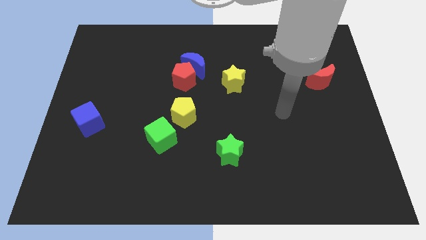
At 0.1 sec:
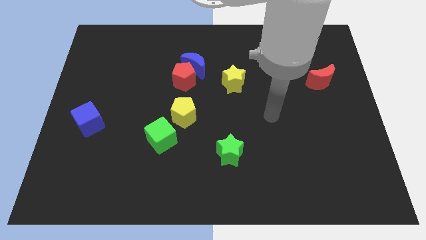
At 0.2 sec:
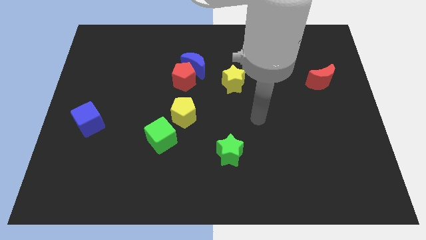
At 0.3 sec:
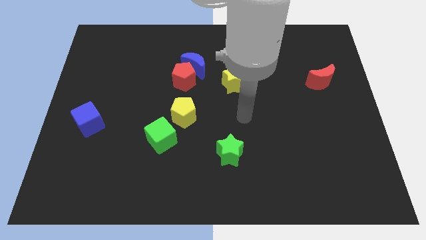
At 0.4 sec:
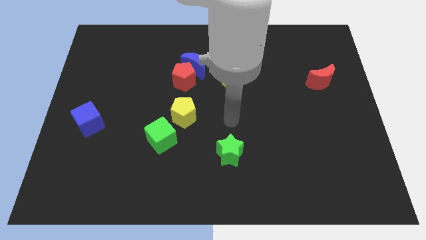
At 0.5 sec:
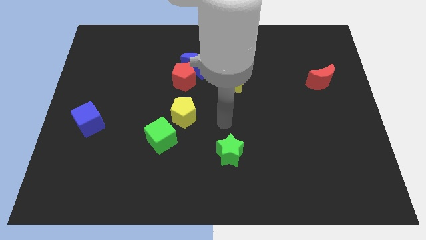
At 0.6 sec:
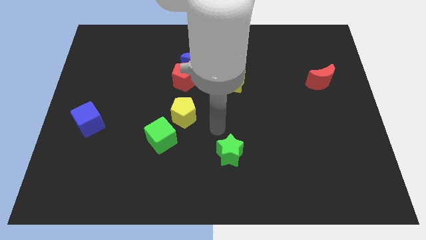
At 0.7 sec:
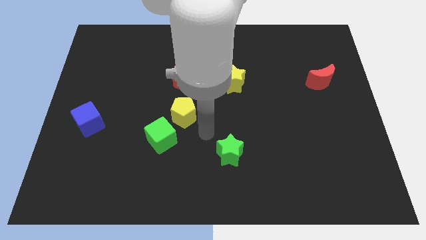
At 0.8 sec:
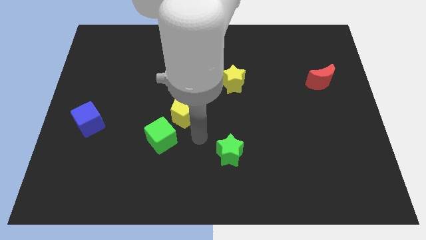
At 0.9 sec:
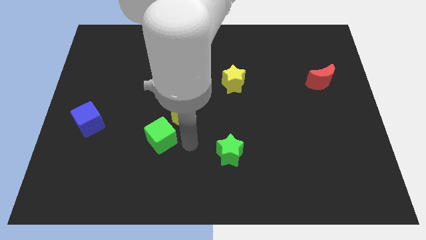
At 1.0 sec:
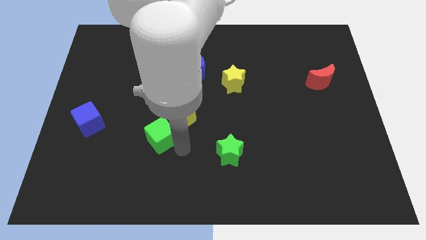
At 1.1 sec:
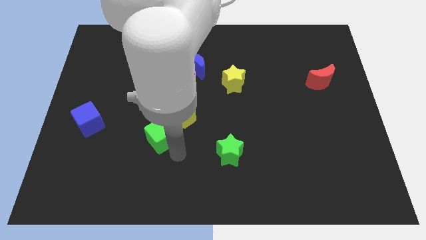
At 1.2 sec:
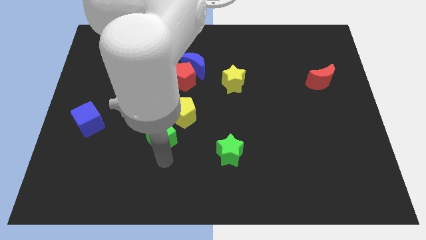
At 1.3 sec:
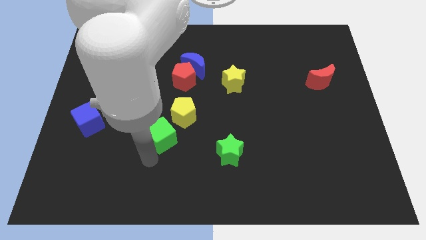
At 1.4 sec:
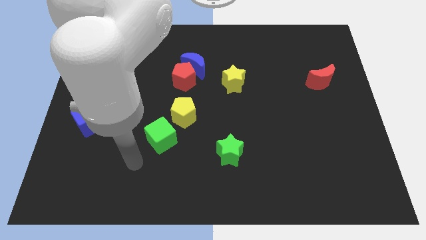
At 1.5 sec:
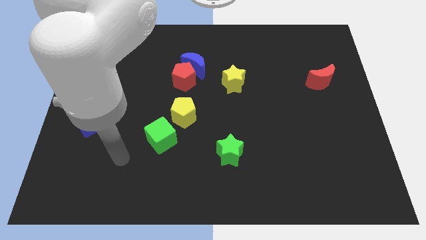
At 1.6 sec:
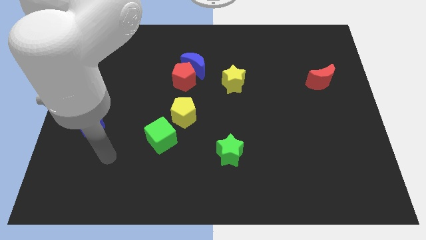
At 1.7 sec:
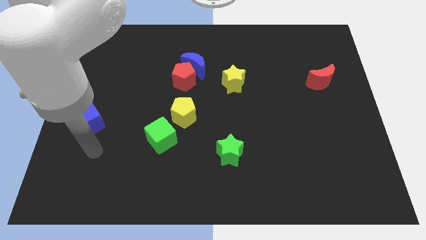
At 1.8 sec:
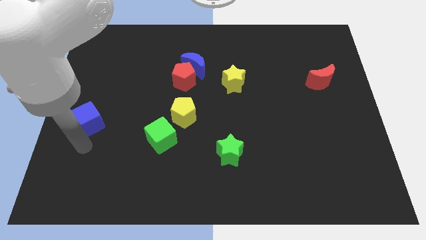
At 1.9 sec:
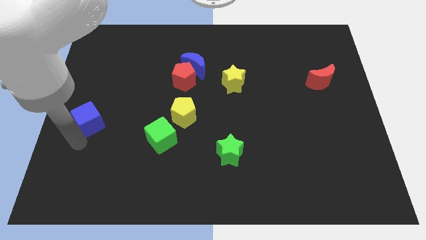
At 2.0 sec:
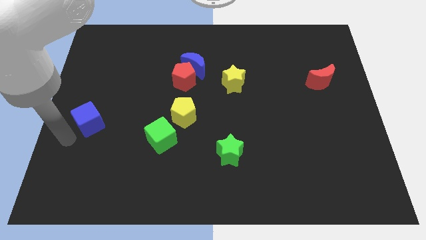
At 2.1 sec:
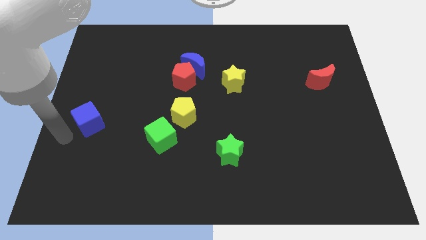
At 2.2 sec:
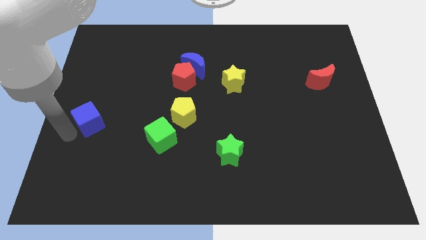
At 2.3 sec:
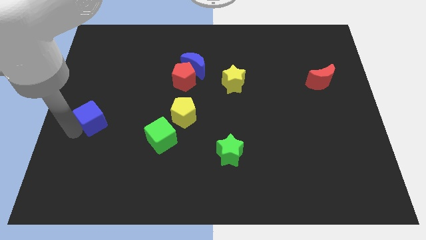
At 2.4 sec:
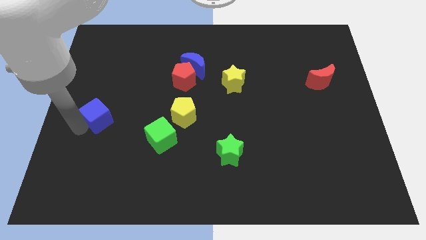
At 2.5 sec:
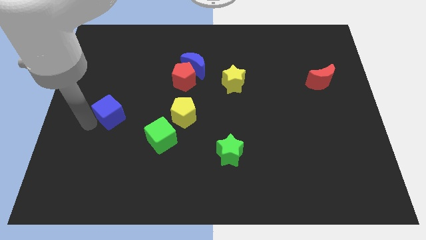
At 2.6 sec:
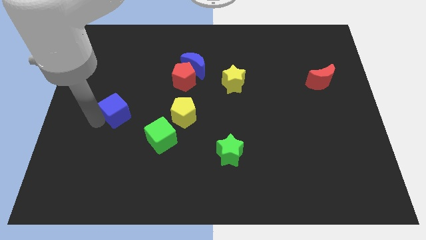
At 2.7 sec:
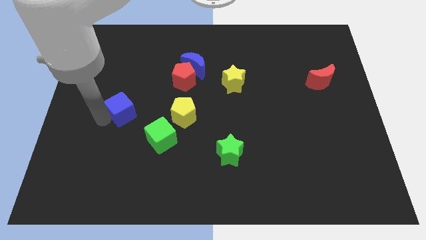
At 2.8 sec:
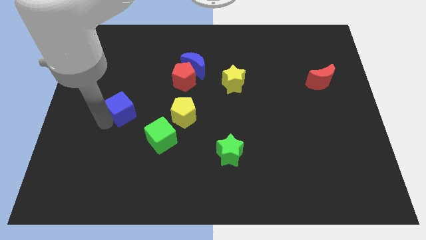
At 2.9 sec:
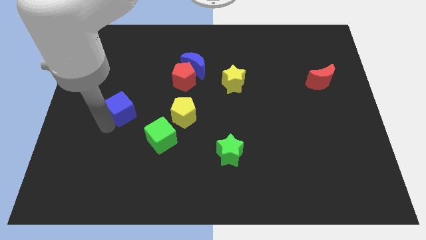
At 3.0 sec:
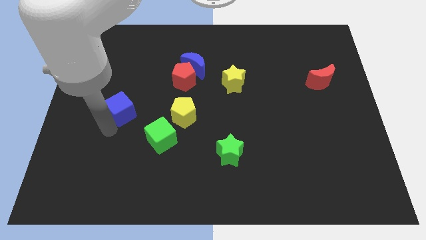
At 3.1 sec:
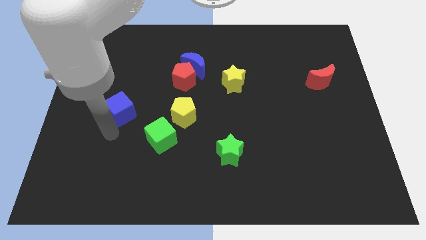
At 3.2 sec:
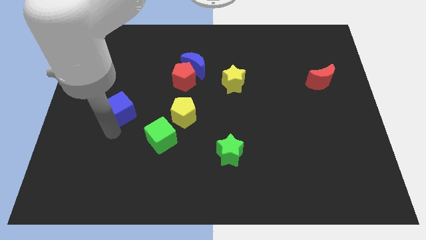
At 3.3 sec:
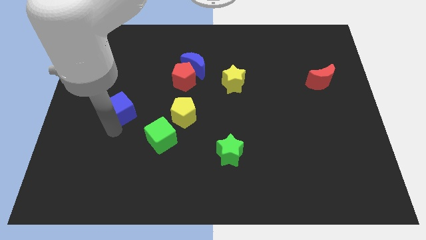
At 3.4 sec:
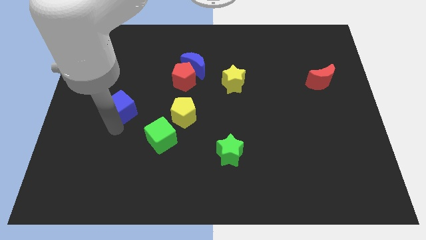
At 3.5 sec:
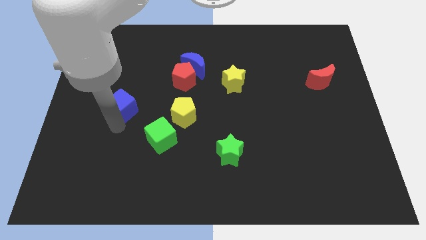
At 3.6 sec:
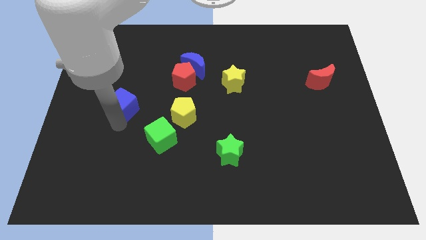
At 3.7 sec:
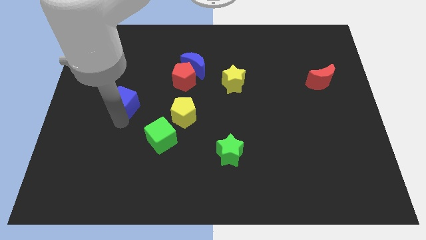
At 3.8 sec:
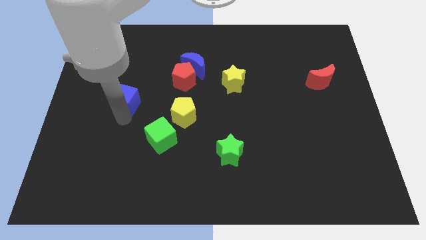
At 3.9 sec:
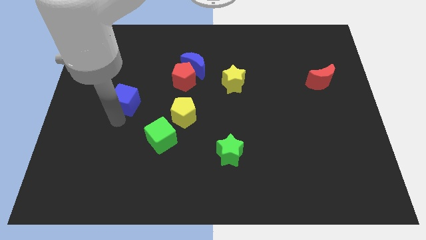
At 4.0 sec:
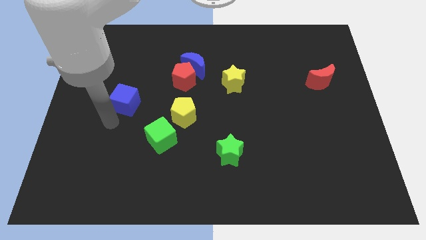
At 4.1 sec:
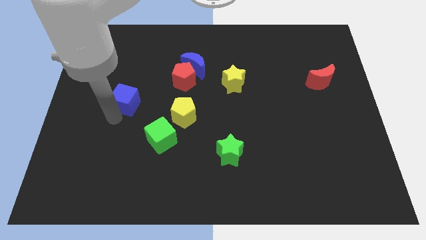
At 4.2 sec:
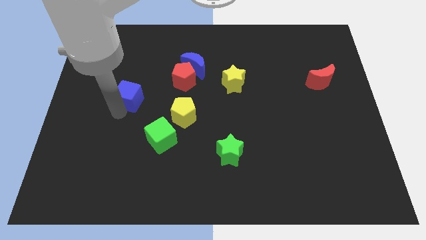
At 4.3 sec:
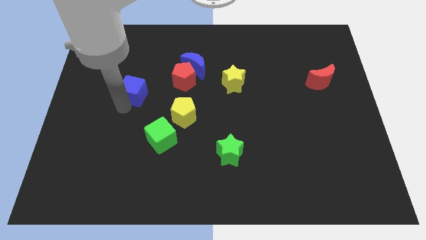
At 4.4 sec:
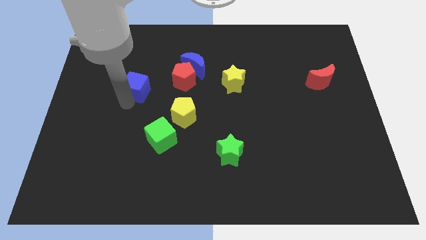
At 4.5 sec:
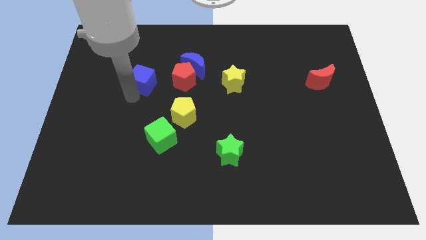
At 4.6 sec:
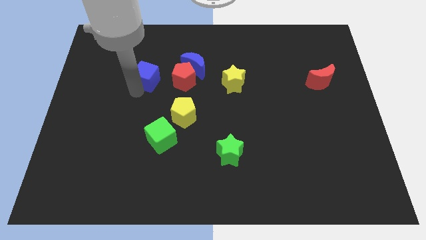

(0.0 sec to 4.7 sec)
slide the blue cube to the left side of the blue moon

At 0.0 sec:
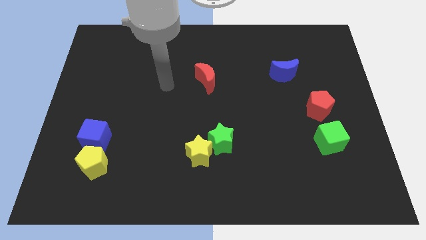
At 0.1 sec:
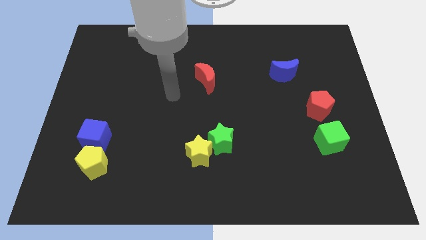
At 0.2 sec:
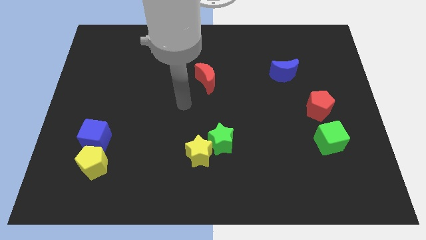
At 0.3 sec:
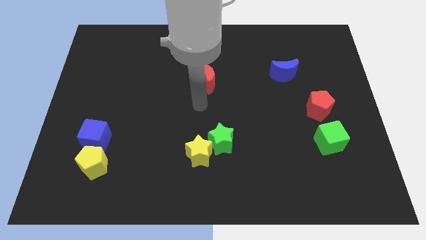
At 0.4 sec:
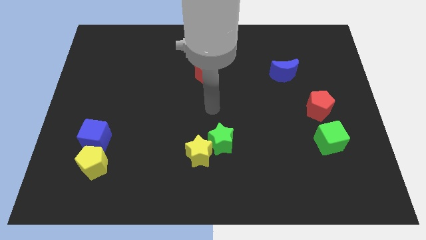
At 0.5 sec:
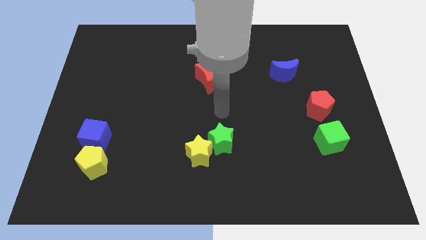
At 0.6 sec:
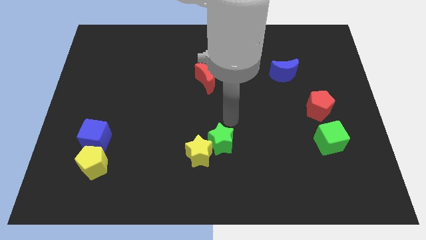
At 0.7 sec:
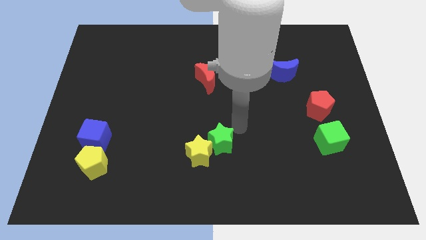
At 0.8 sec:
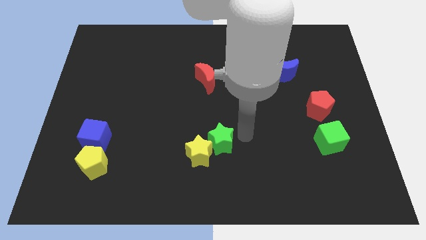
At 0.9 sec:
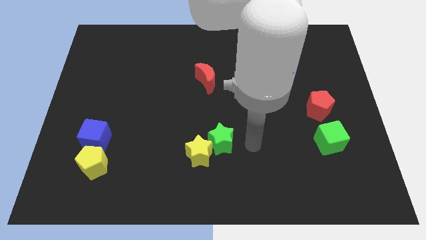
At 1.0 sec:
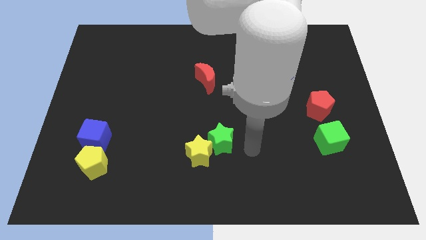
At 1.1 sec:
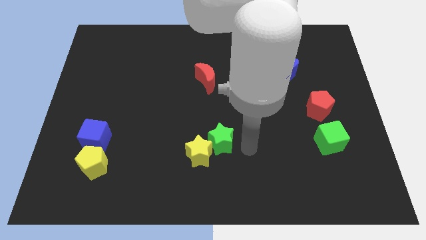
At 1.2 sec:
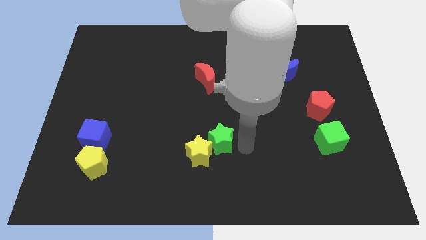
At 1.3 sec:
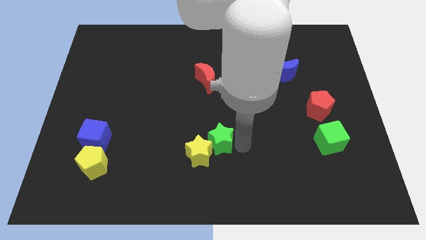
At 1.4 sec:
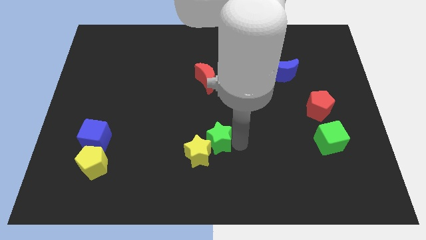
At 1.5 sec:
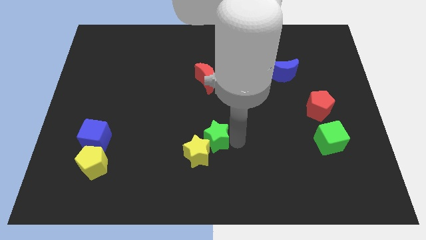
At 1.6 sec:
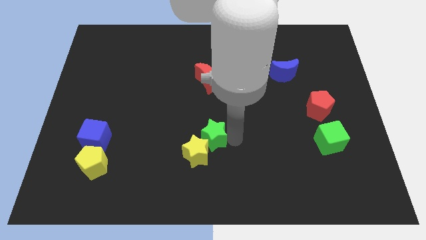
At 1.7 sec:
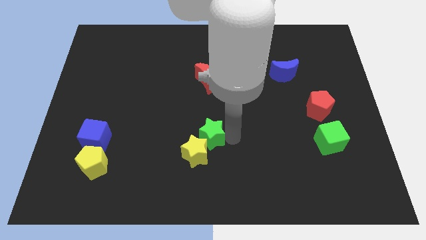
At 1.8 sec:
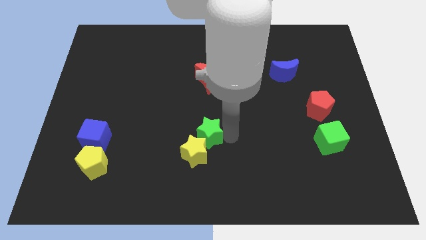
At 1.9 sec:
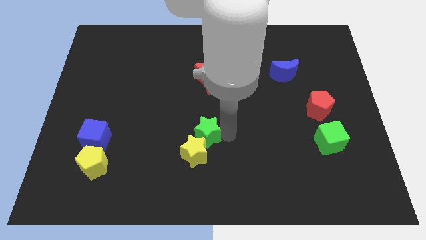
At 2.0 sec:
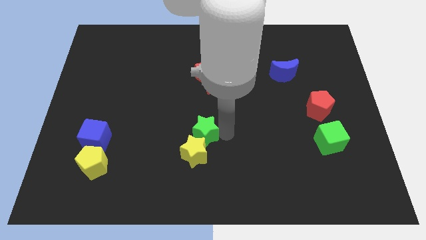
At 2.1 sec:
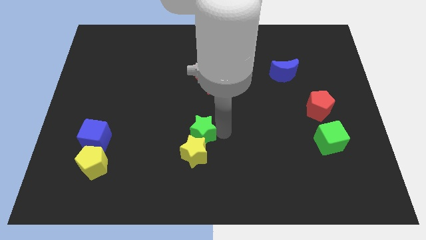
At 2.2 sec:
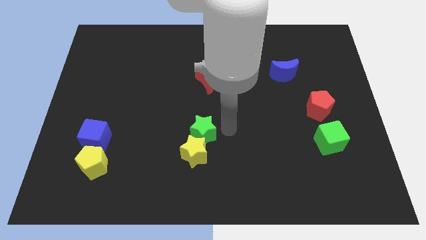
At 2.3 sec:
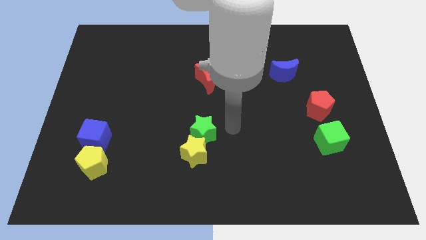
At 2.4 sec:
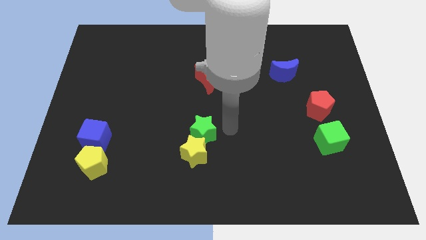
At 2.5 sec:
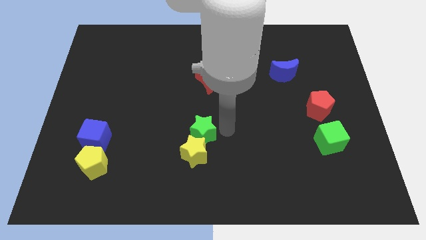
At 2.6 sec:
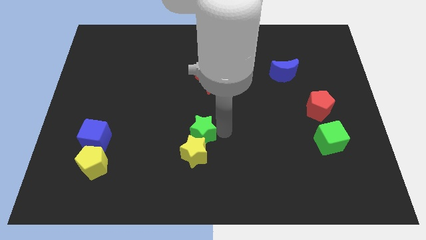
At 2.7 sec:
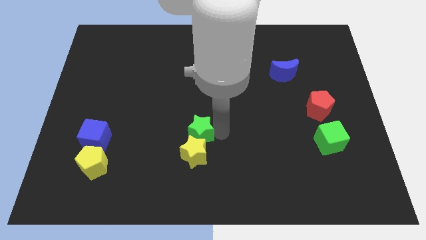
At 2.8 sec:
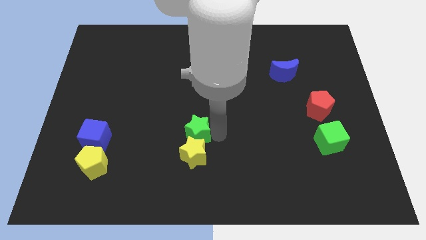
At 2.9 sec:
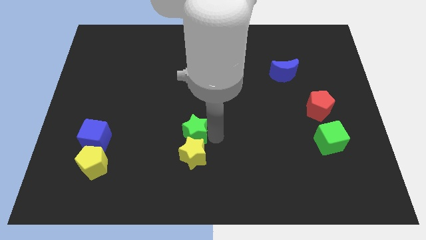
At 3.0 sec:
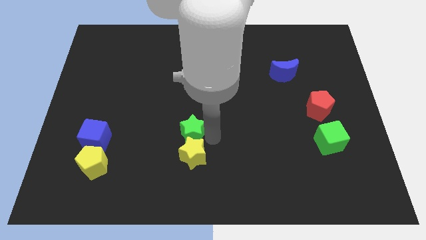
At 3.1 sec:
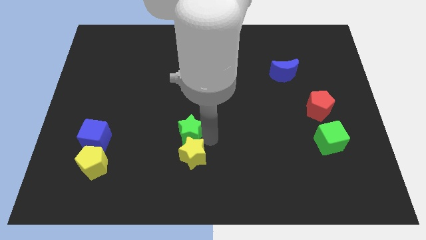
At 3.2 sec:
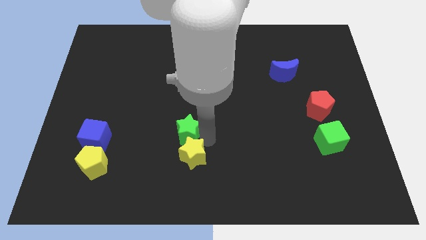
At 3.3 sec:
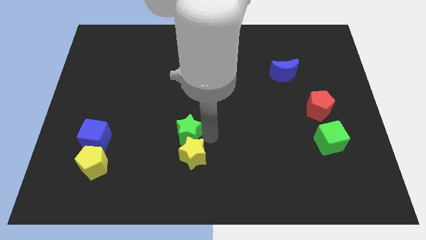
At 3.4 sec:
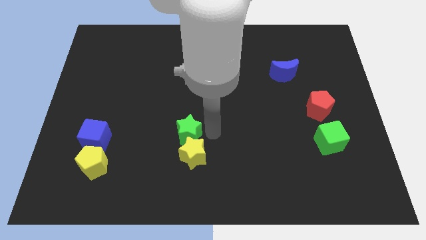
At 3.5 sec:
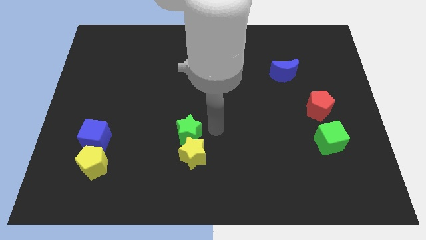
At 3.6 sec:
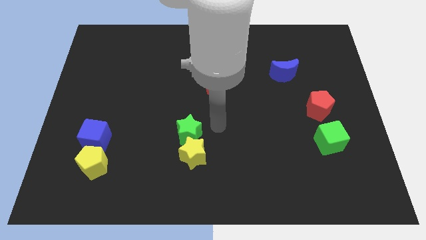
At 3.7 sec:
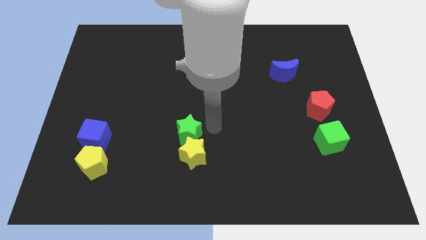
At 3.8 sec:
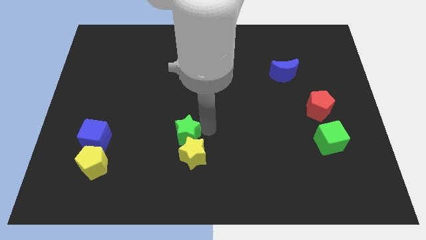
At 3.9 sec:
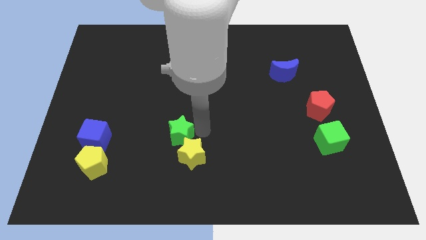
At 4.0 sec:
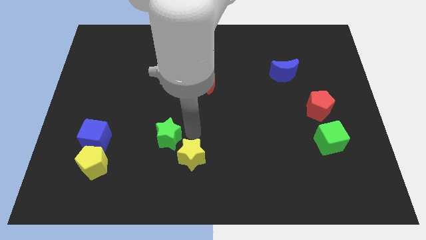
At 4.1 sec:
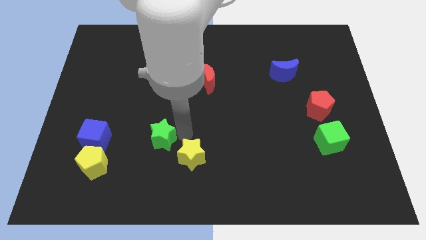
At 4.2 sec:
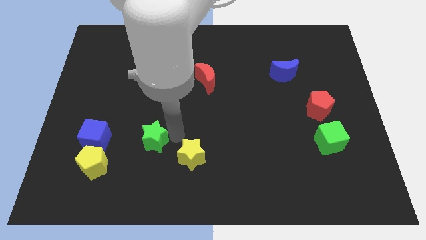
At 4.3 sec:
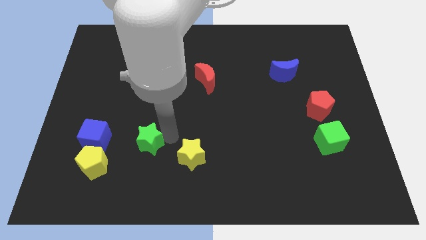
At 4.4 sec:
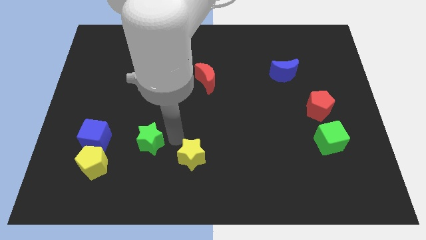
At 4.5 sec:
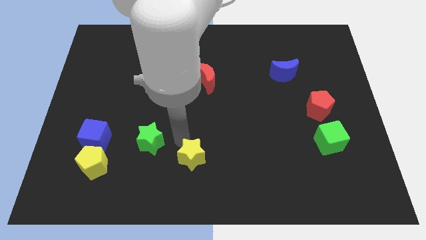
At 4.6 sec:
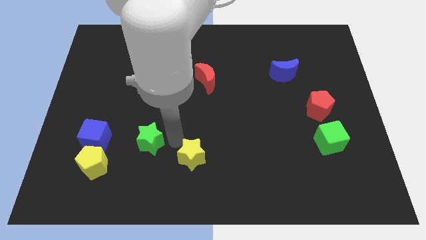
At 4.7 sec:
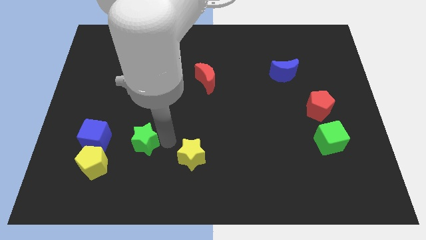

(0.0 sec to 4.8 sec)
put the green star to the top right of the yellow pentagon
